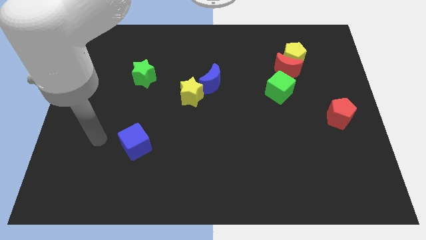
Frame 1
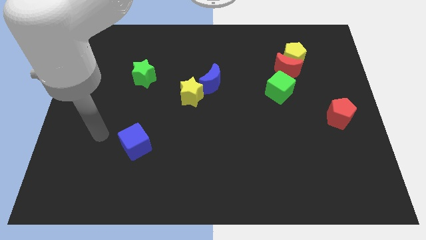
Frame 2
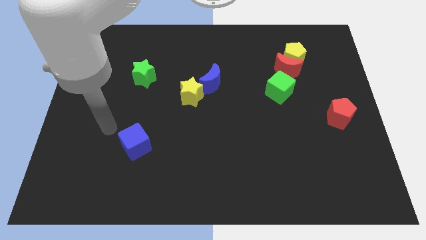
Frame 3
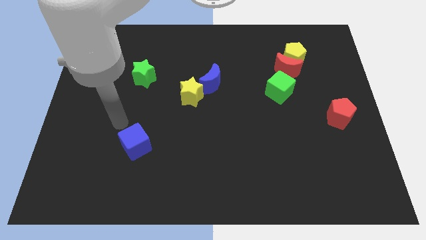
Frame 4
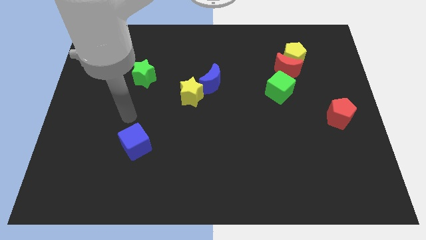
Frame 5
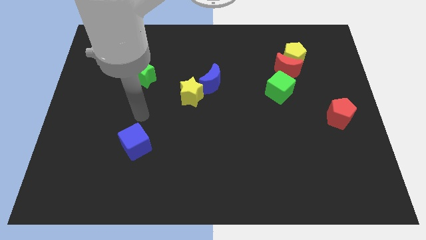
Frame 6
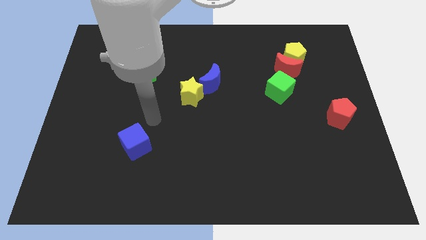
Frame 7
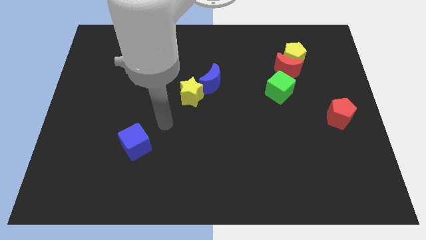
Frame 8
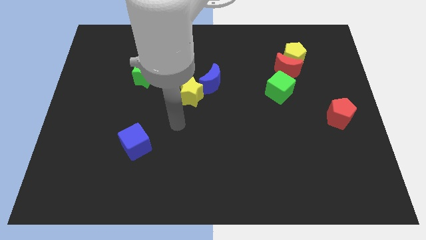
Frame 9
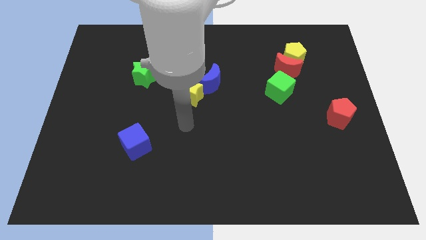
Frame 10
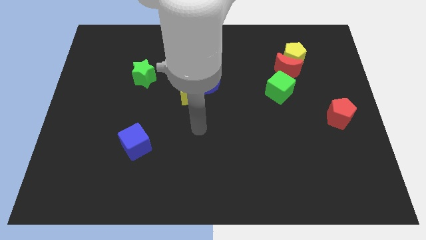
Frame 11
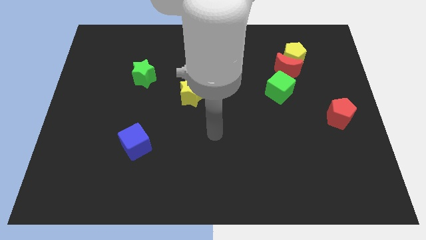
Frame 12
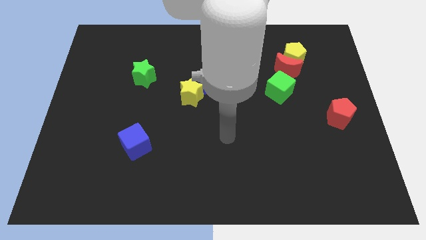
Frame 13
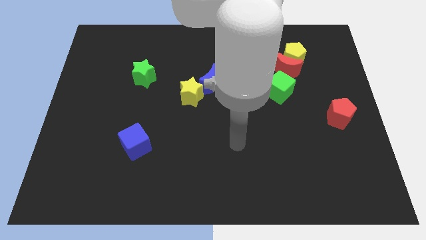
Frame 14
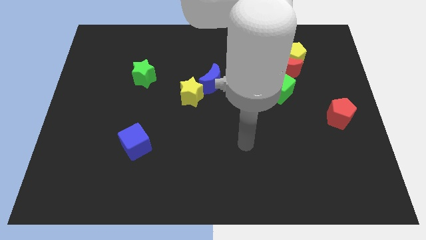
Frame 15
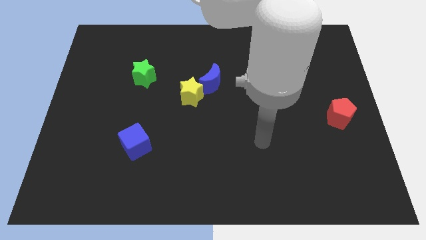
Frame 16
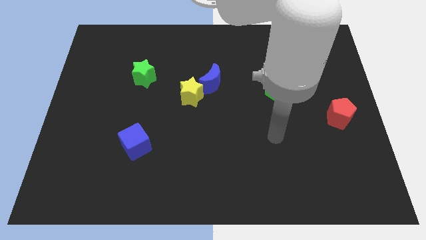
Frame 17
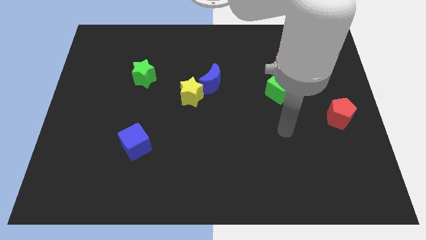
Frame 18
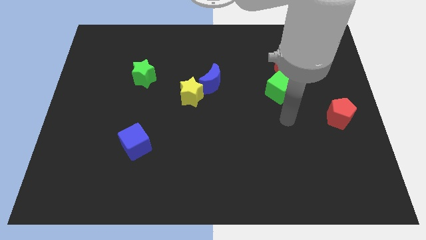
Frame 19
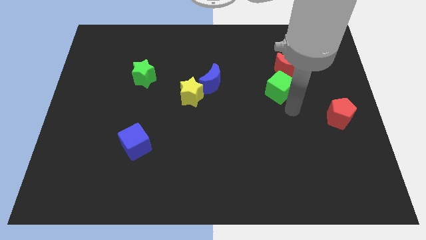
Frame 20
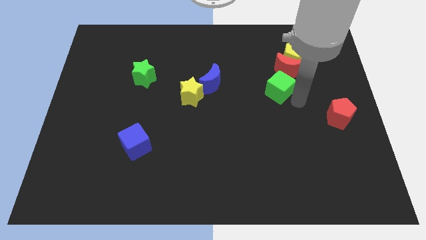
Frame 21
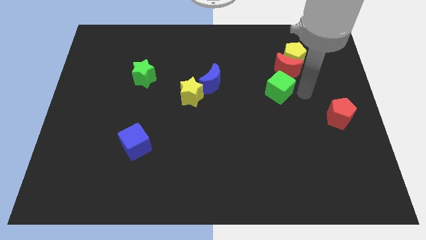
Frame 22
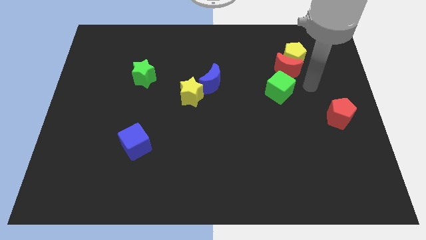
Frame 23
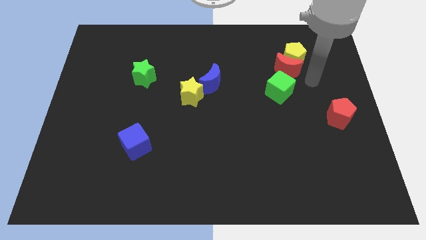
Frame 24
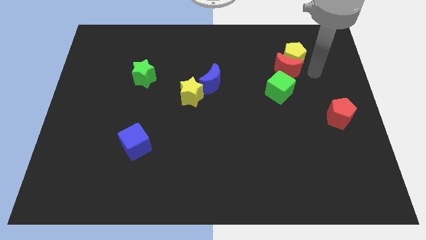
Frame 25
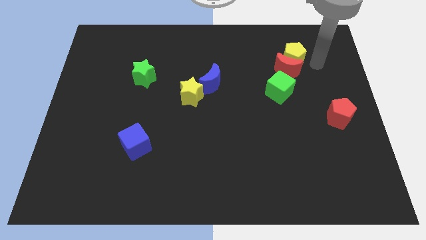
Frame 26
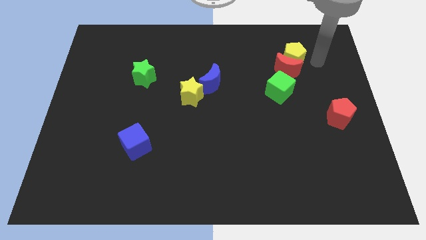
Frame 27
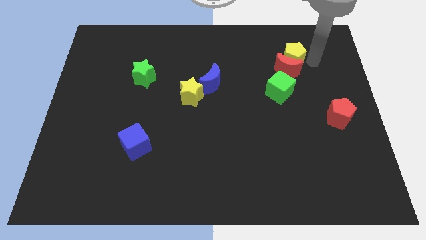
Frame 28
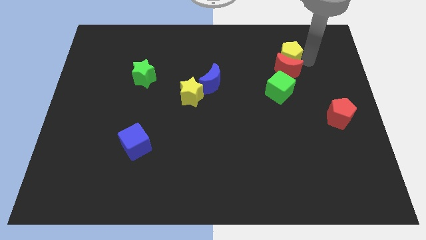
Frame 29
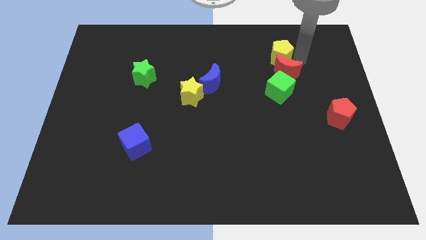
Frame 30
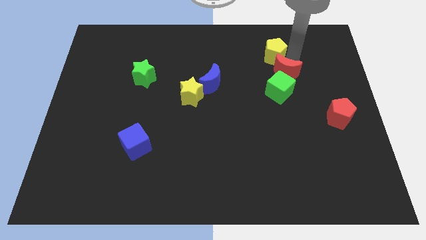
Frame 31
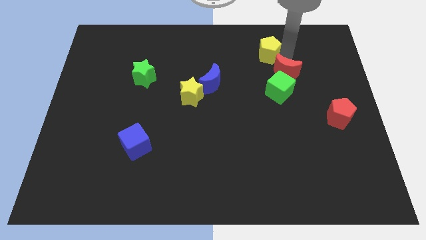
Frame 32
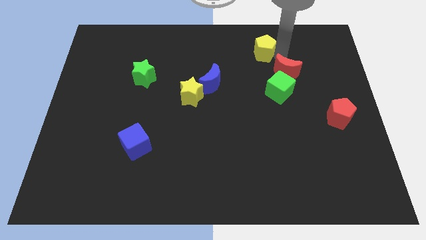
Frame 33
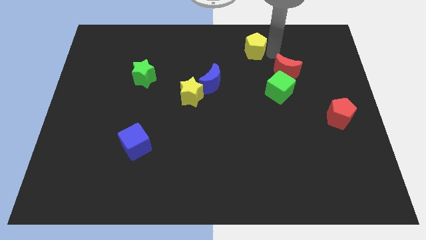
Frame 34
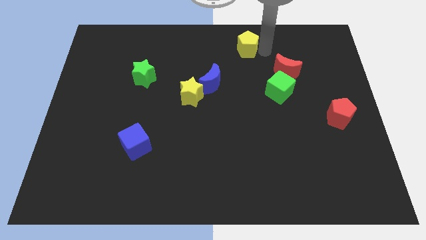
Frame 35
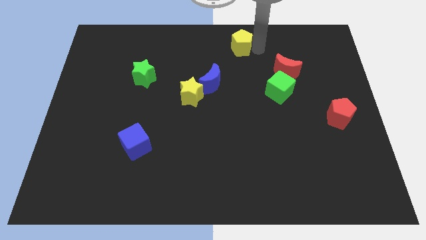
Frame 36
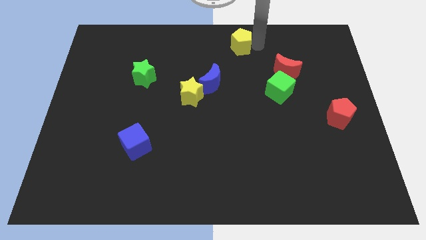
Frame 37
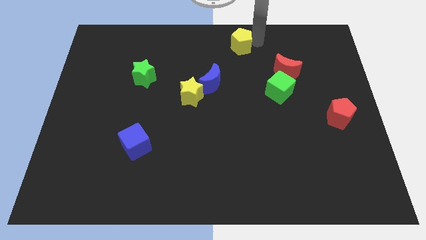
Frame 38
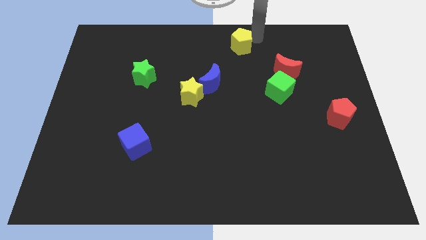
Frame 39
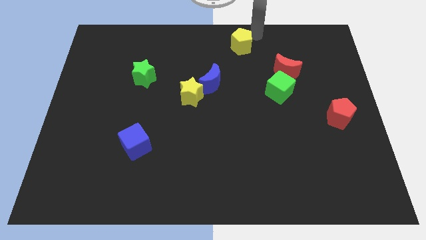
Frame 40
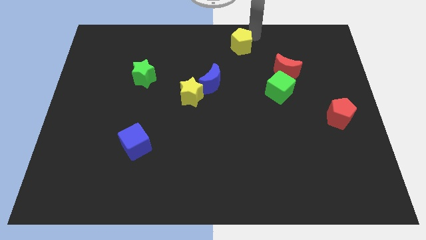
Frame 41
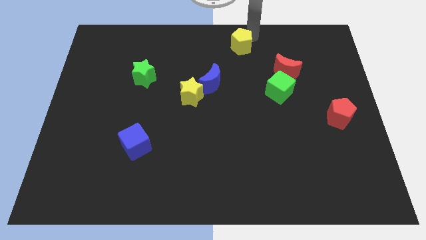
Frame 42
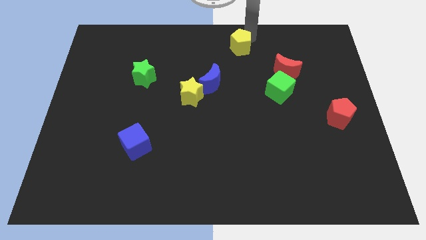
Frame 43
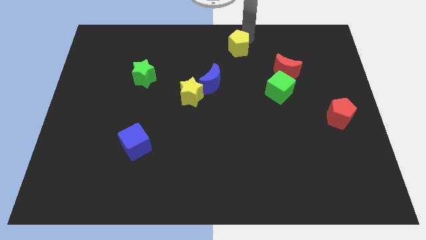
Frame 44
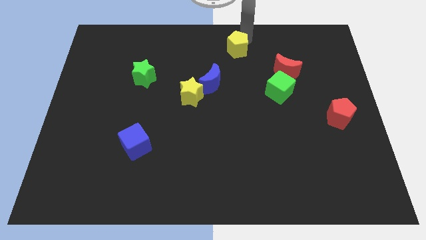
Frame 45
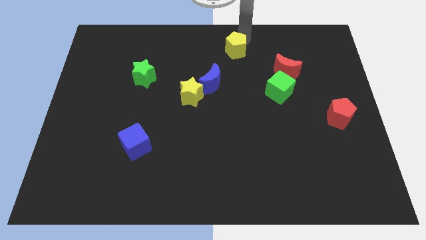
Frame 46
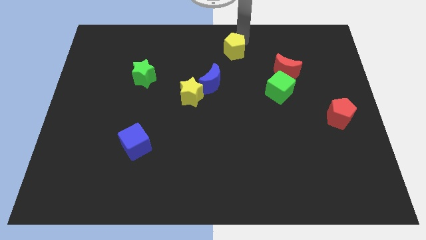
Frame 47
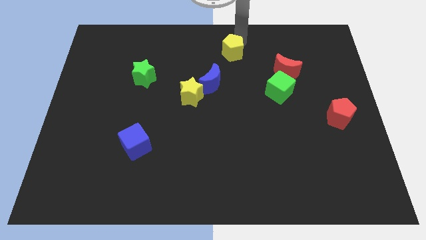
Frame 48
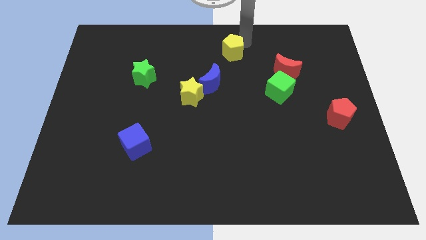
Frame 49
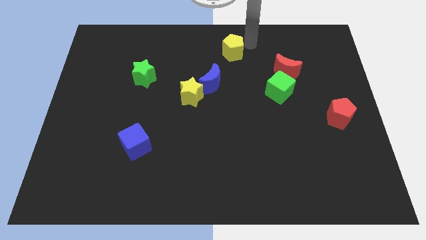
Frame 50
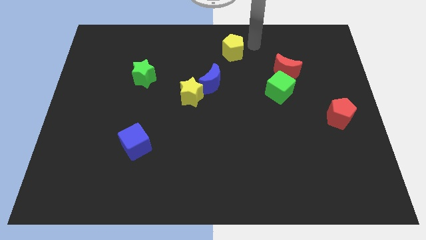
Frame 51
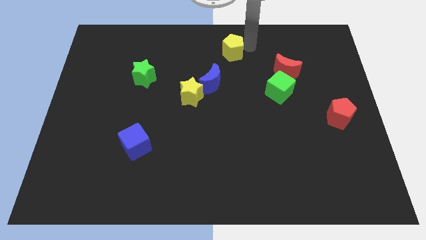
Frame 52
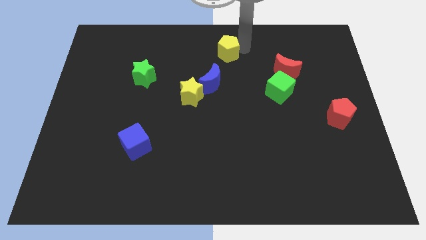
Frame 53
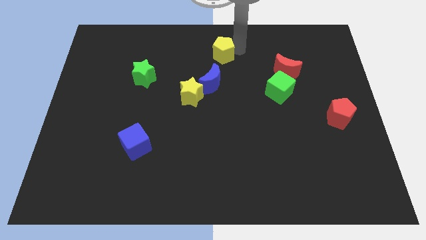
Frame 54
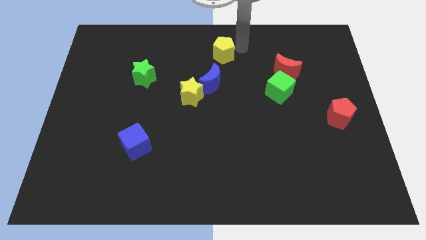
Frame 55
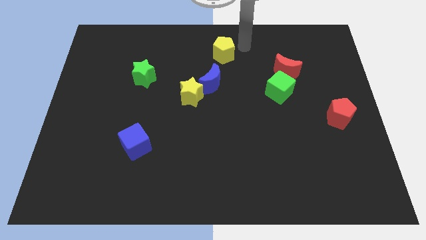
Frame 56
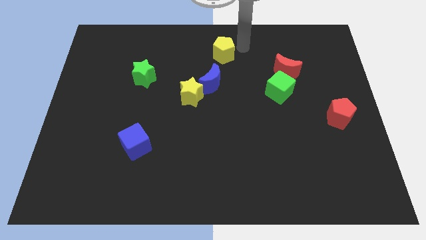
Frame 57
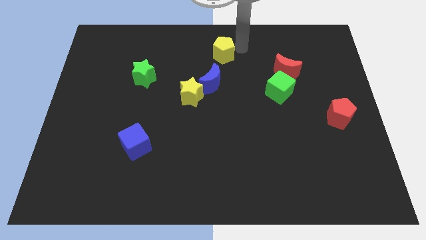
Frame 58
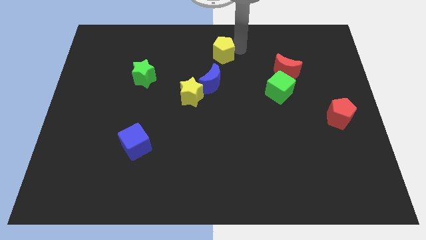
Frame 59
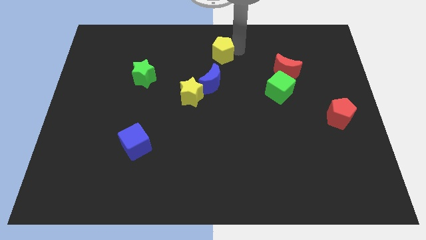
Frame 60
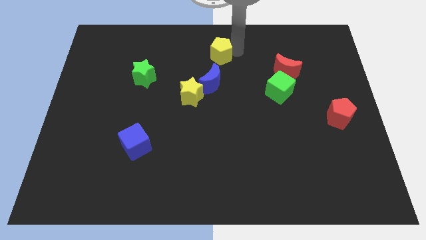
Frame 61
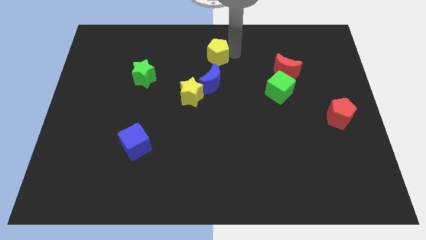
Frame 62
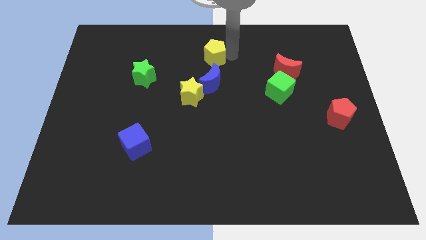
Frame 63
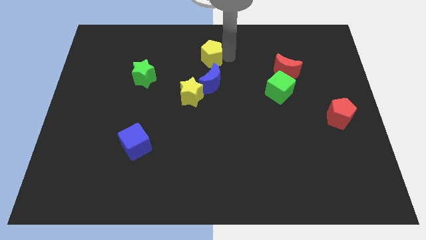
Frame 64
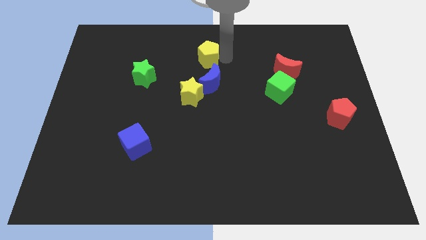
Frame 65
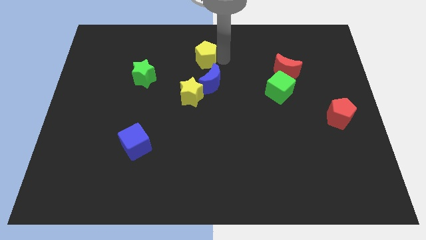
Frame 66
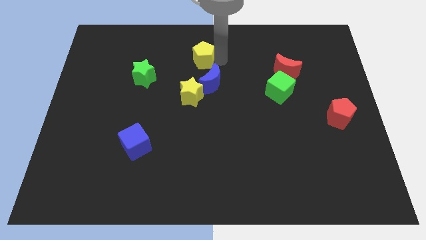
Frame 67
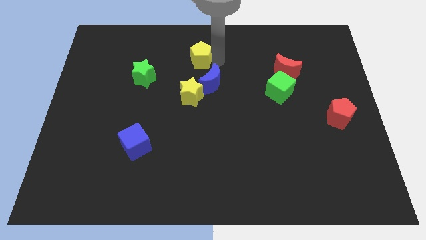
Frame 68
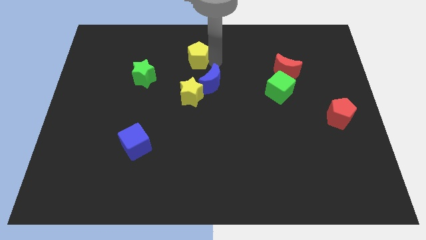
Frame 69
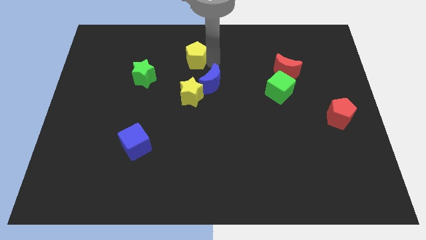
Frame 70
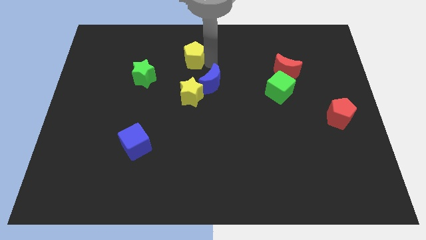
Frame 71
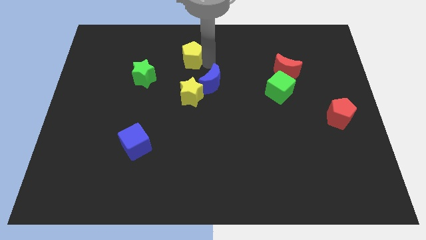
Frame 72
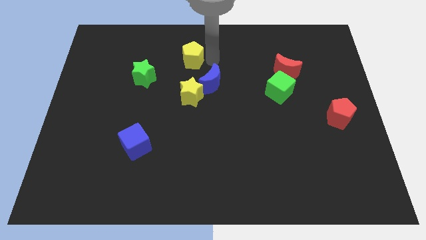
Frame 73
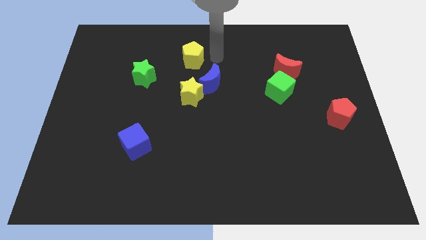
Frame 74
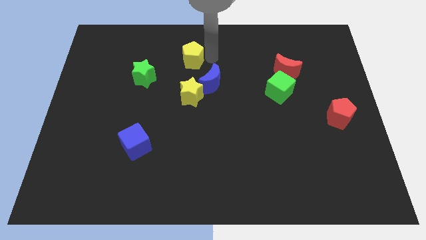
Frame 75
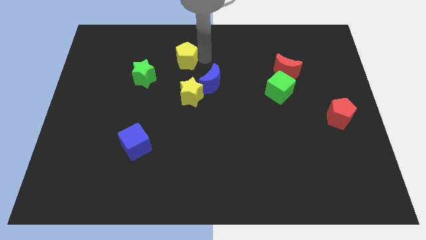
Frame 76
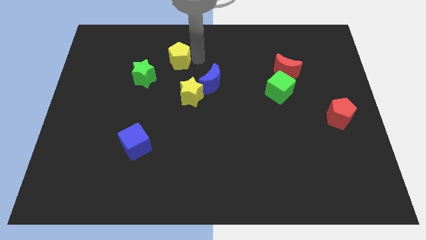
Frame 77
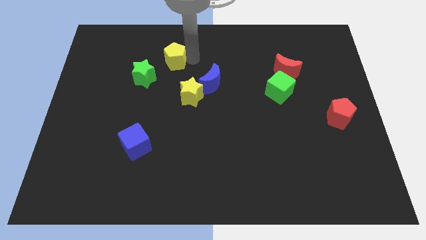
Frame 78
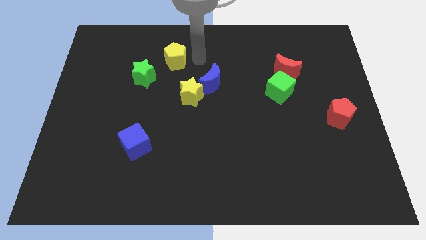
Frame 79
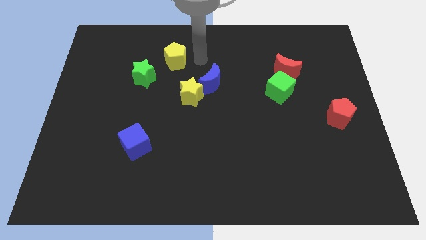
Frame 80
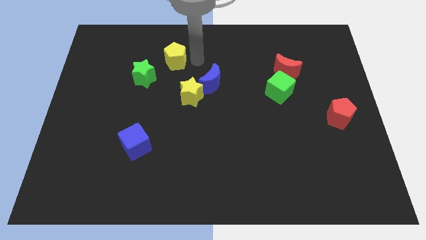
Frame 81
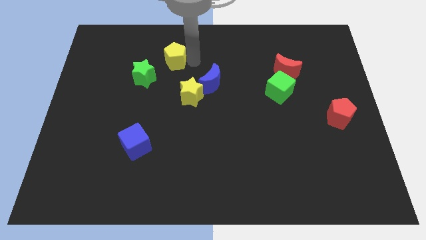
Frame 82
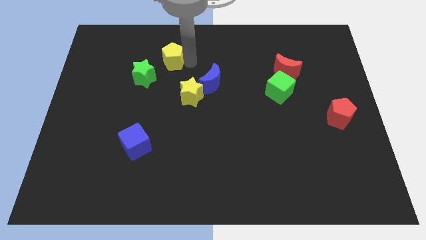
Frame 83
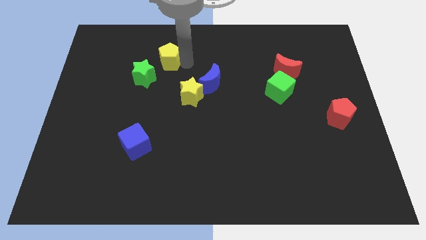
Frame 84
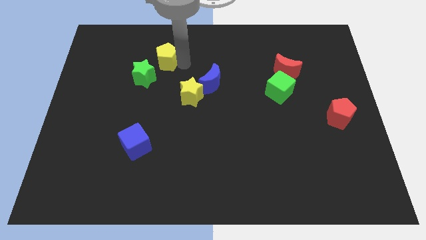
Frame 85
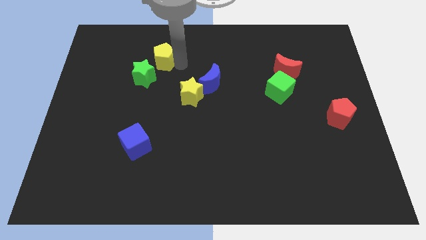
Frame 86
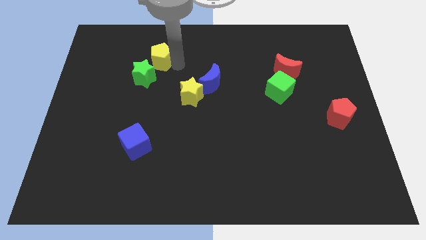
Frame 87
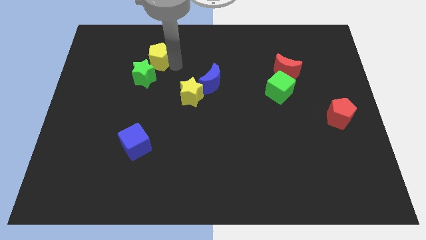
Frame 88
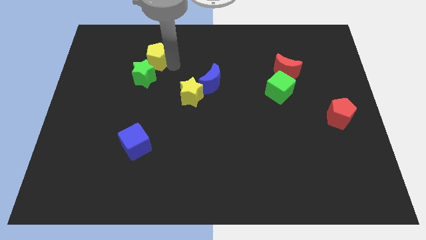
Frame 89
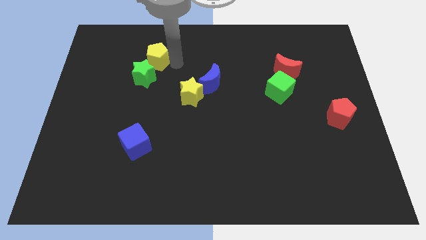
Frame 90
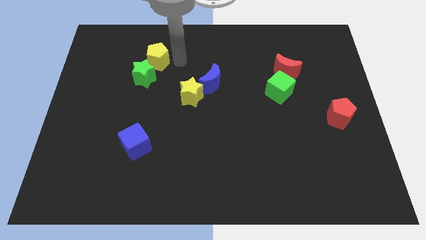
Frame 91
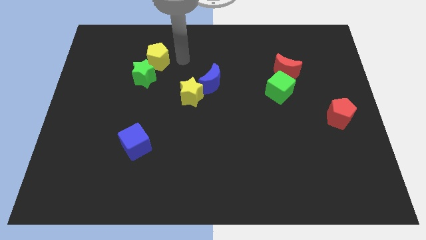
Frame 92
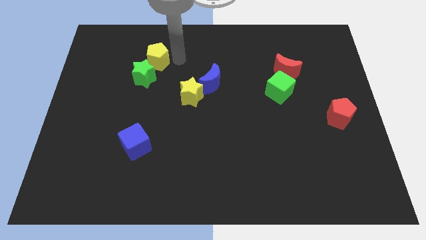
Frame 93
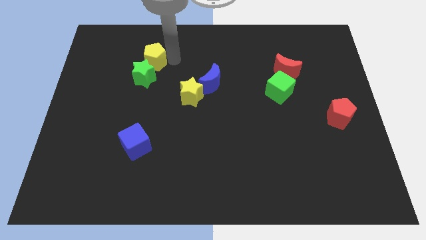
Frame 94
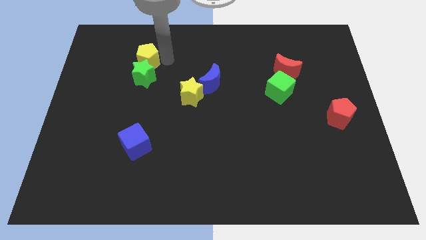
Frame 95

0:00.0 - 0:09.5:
put the yellow pentagon to the top left of the green star
